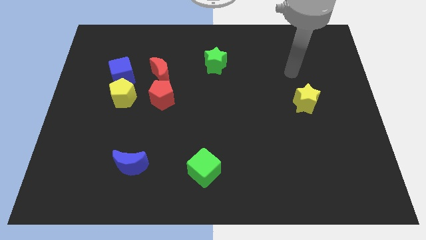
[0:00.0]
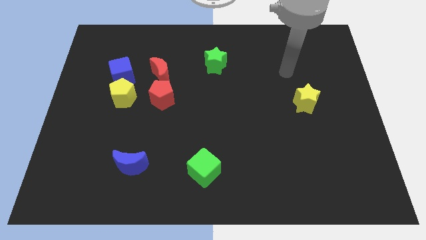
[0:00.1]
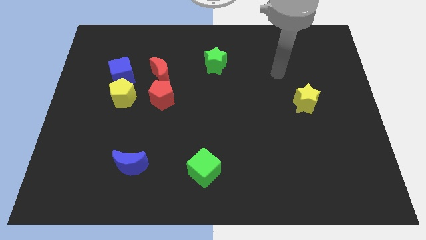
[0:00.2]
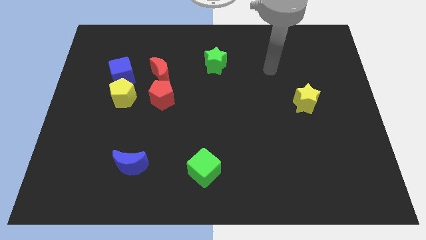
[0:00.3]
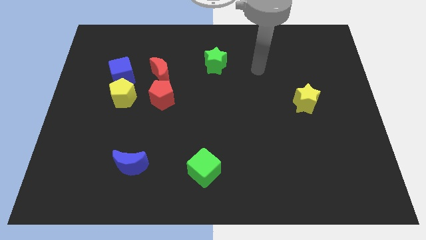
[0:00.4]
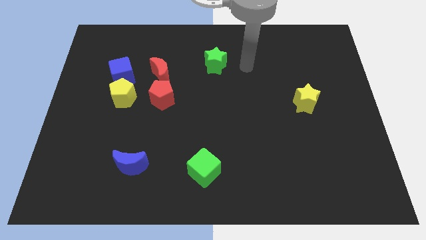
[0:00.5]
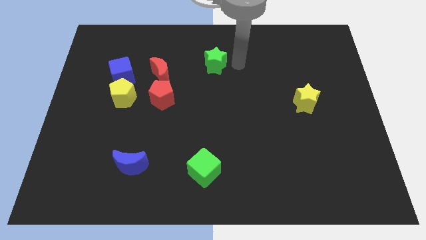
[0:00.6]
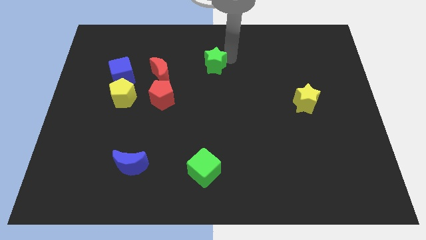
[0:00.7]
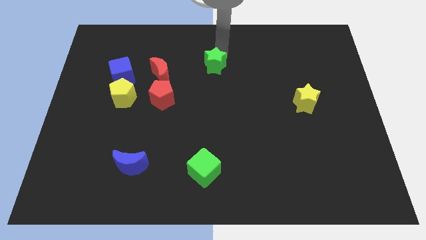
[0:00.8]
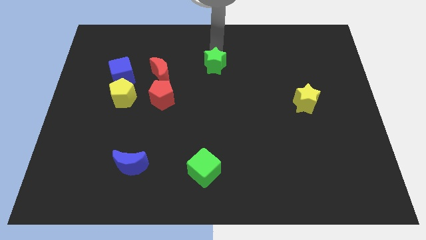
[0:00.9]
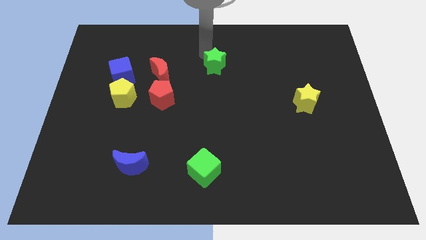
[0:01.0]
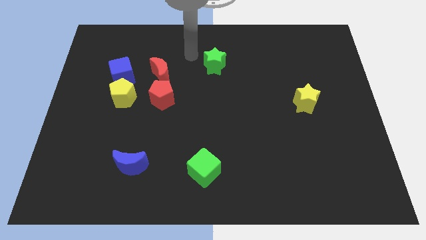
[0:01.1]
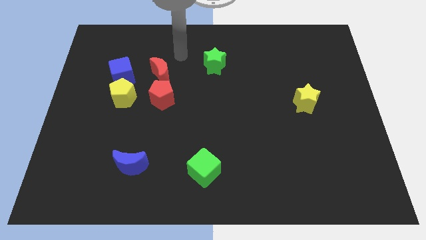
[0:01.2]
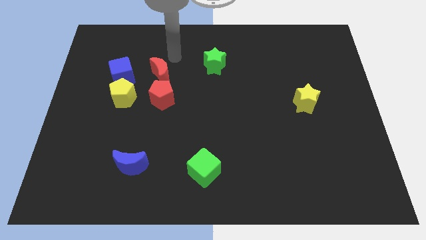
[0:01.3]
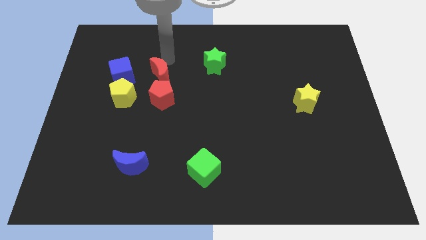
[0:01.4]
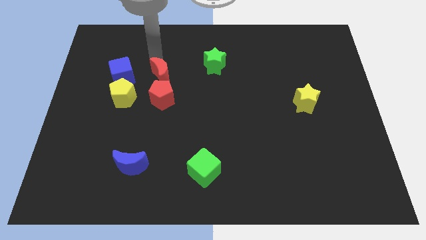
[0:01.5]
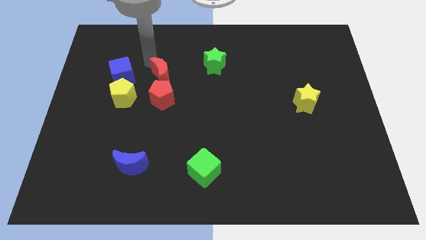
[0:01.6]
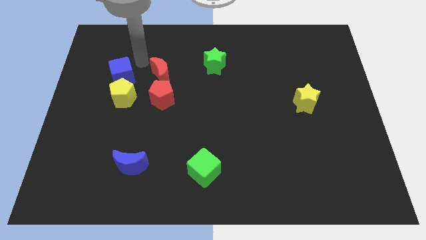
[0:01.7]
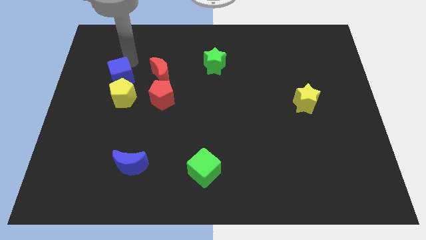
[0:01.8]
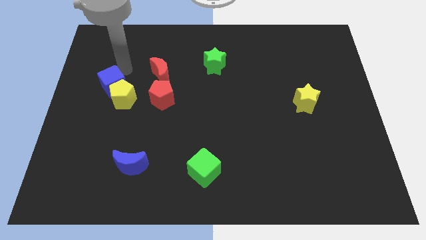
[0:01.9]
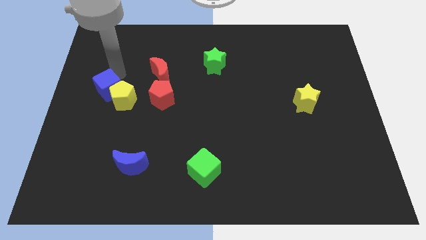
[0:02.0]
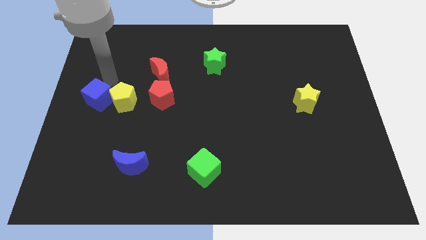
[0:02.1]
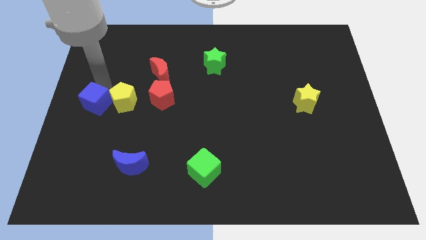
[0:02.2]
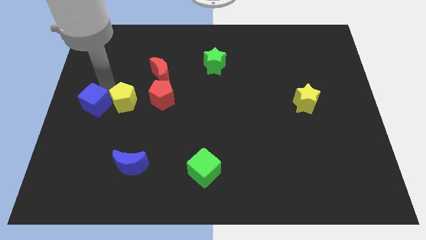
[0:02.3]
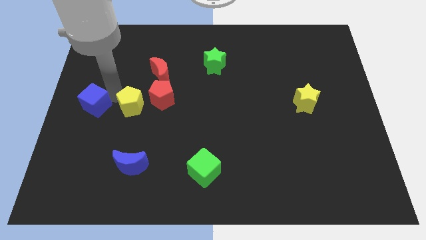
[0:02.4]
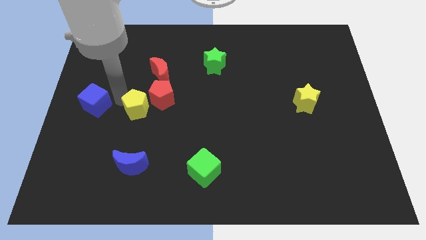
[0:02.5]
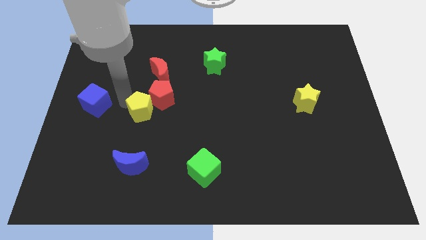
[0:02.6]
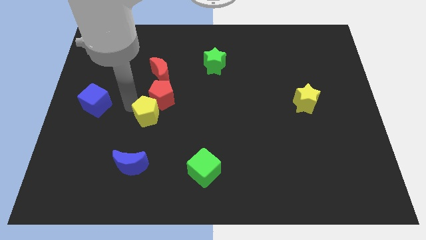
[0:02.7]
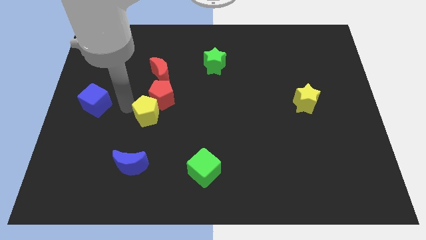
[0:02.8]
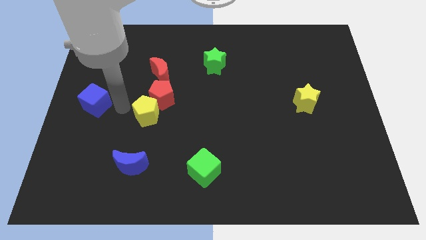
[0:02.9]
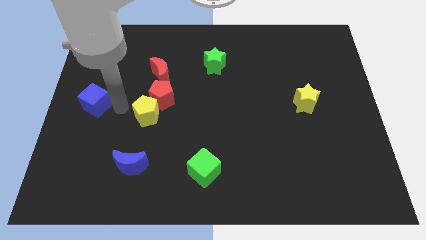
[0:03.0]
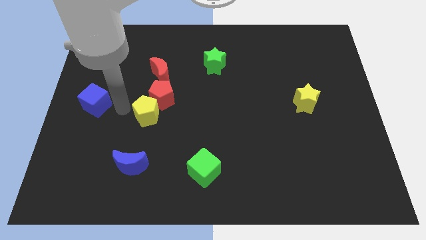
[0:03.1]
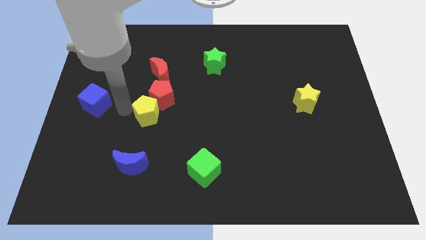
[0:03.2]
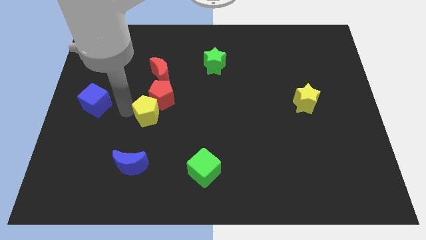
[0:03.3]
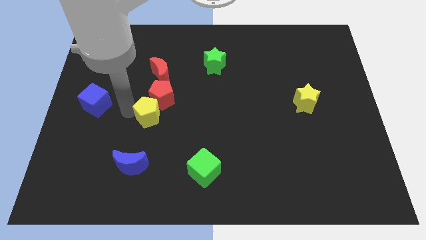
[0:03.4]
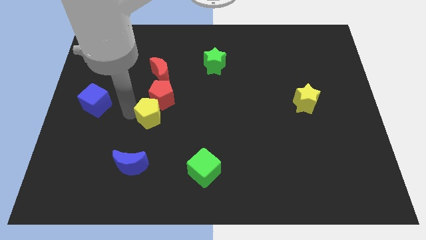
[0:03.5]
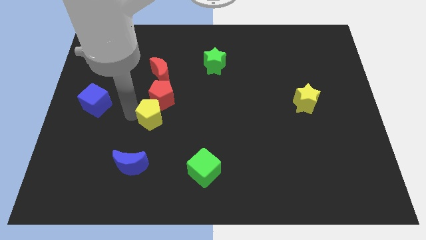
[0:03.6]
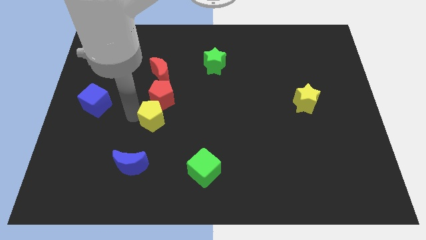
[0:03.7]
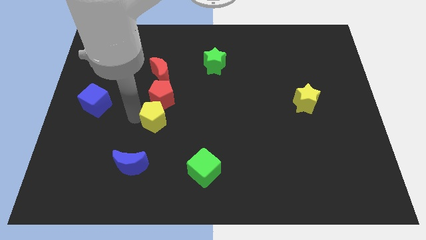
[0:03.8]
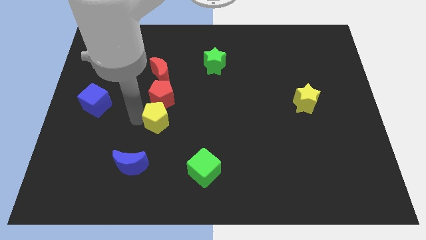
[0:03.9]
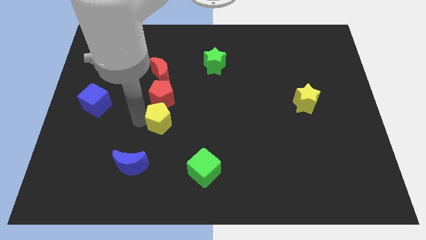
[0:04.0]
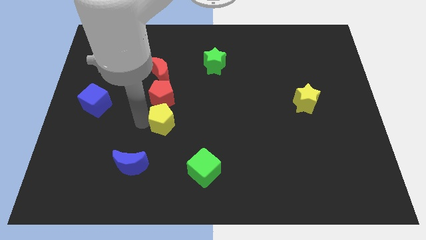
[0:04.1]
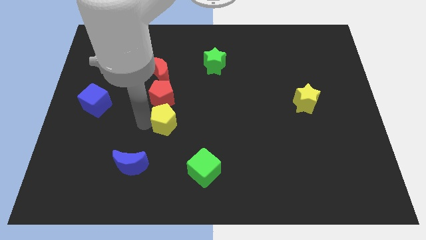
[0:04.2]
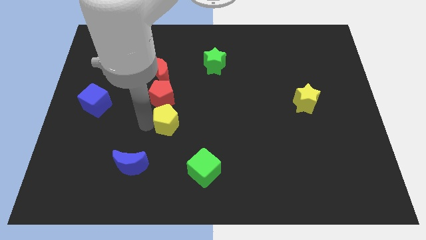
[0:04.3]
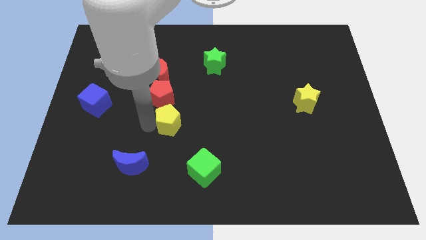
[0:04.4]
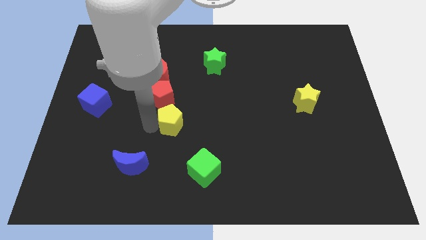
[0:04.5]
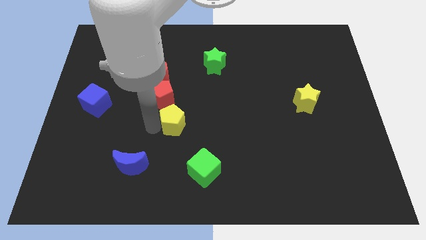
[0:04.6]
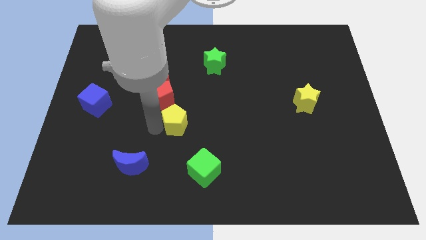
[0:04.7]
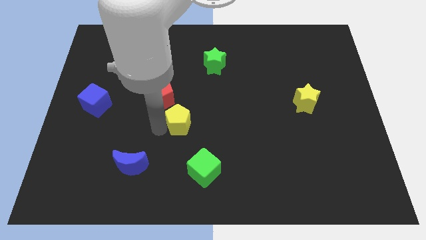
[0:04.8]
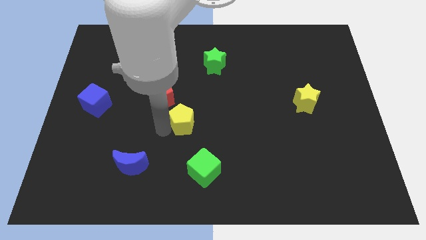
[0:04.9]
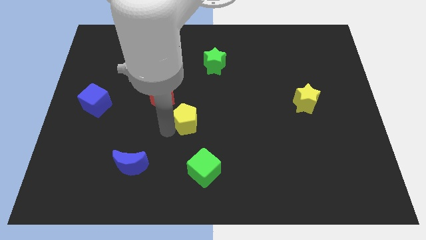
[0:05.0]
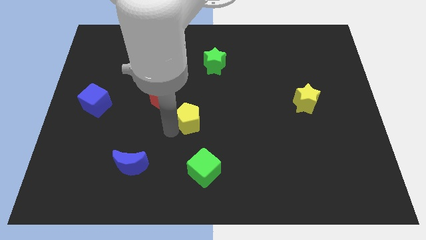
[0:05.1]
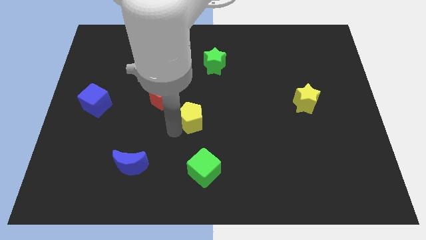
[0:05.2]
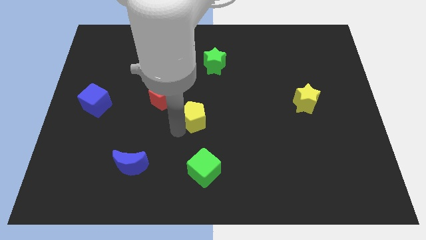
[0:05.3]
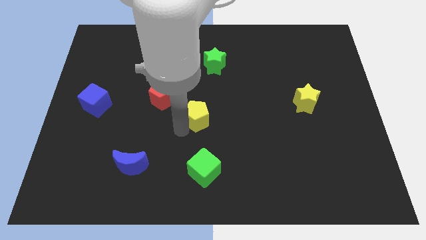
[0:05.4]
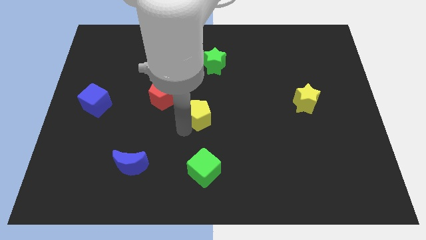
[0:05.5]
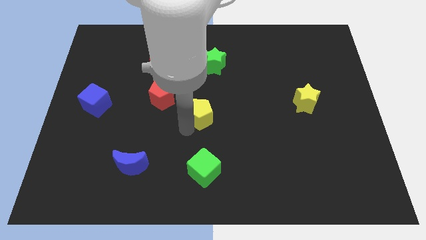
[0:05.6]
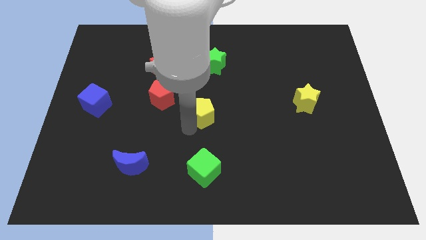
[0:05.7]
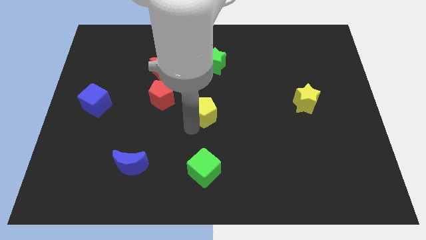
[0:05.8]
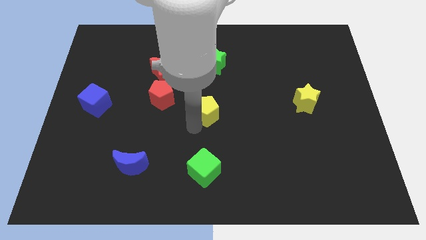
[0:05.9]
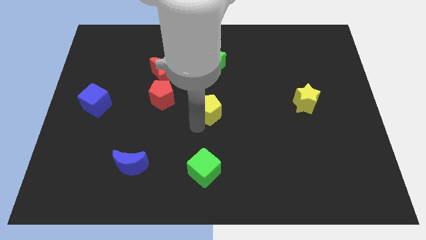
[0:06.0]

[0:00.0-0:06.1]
put the yellow pentagon to the bottom of the green star

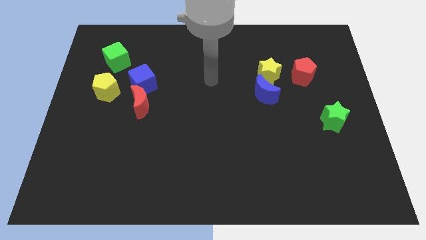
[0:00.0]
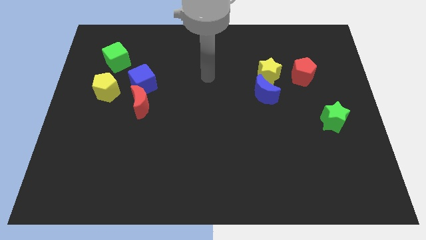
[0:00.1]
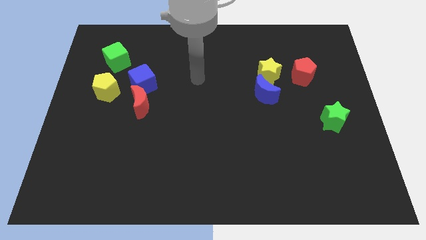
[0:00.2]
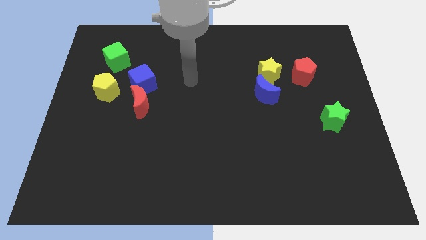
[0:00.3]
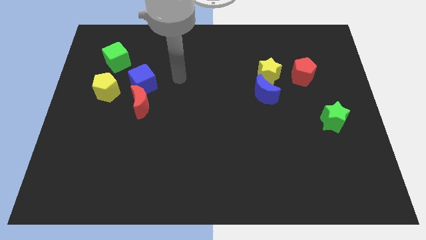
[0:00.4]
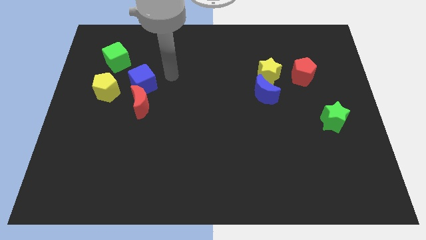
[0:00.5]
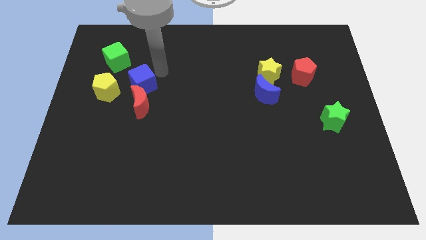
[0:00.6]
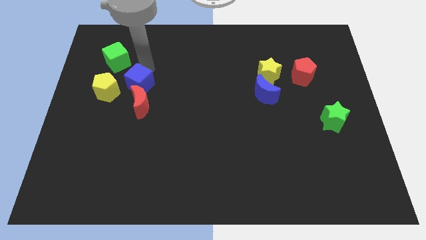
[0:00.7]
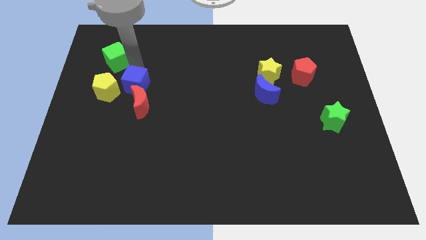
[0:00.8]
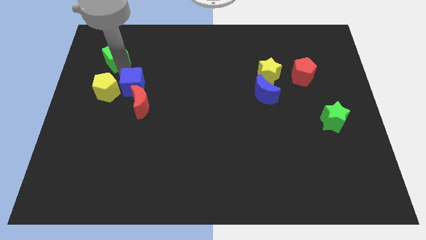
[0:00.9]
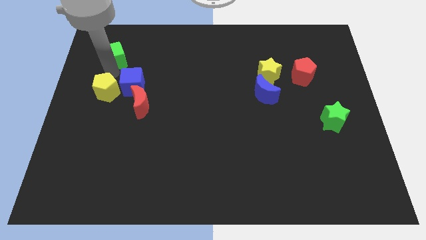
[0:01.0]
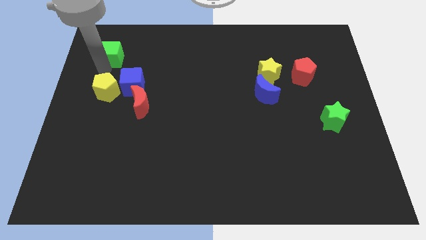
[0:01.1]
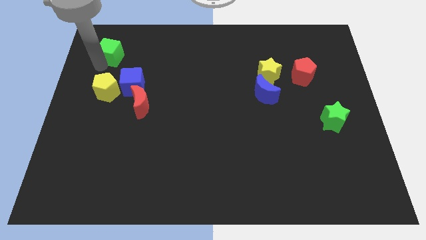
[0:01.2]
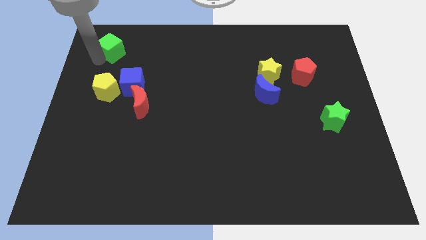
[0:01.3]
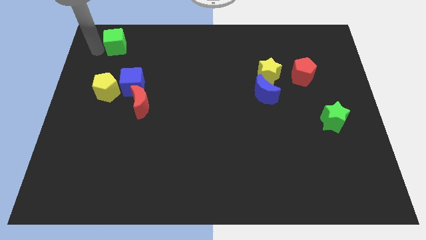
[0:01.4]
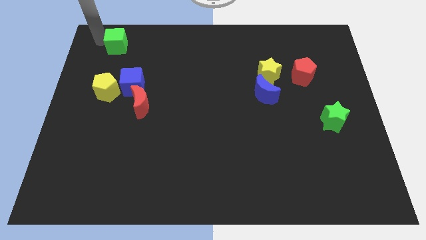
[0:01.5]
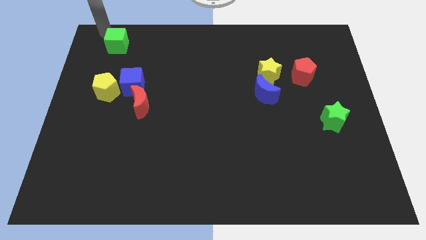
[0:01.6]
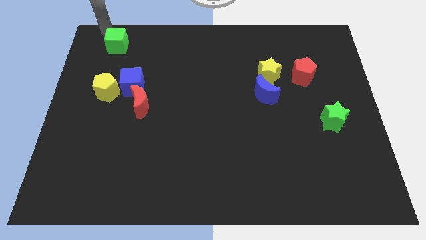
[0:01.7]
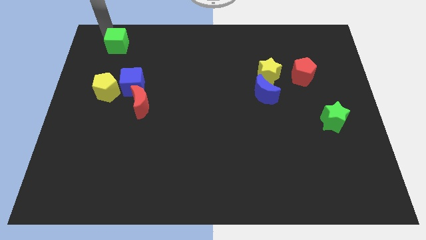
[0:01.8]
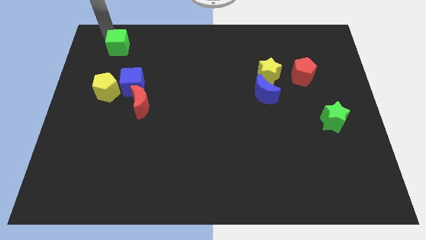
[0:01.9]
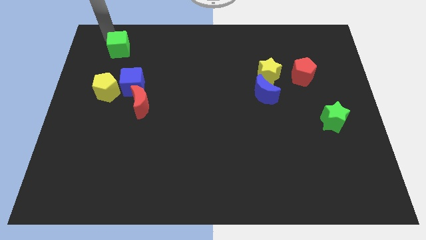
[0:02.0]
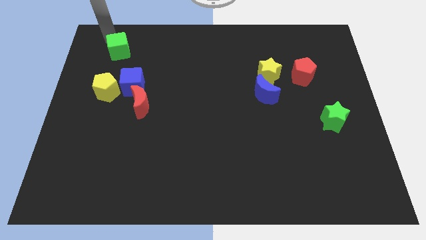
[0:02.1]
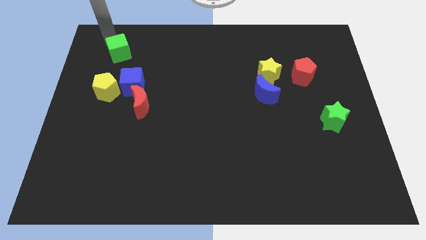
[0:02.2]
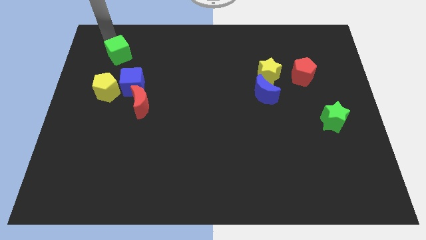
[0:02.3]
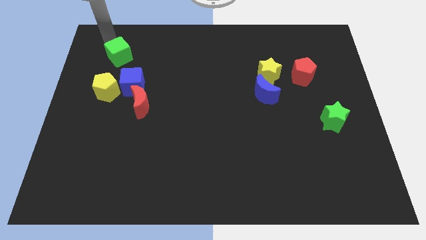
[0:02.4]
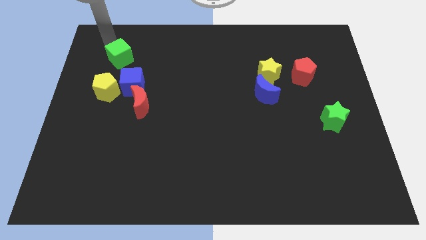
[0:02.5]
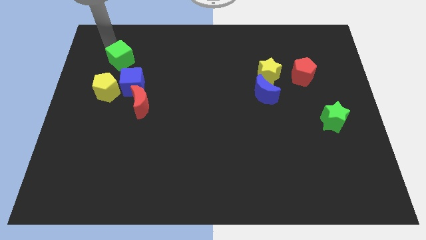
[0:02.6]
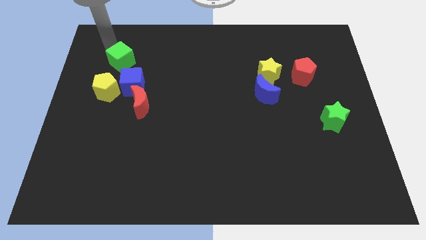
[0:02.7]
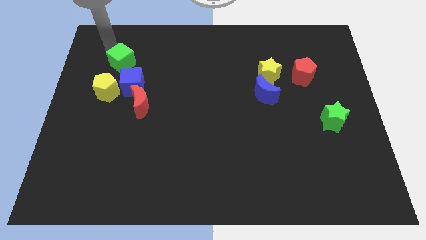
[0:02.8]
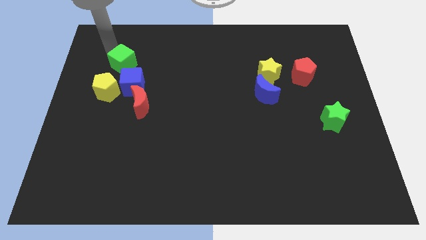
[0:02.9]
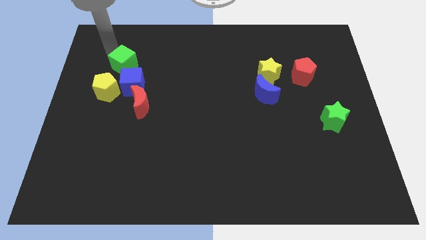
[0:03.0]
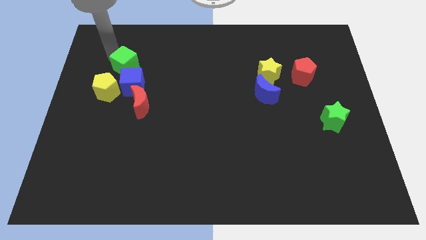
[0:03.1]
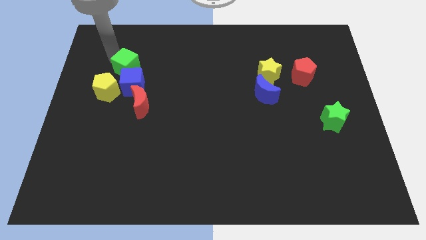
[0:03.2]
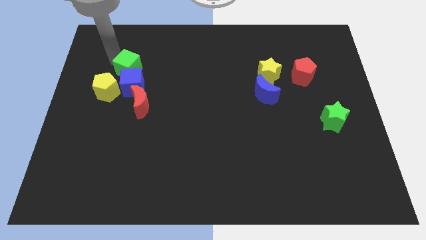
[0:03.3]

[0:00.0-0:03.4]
put the green cube to the top side of the red moon
